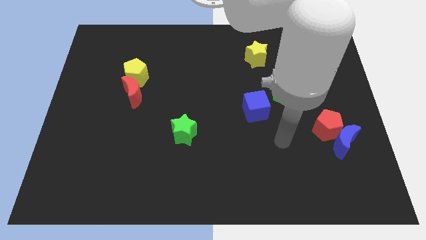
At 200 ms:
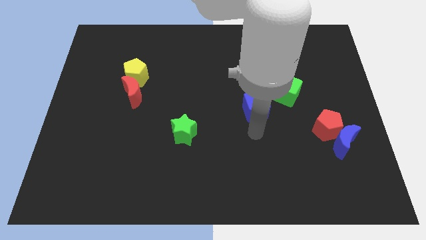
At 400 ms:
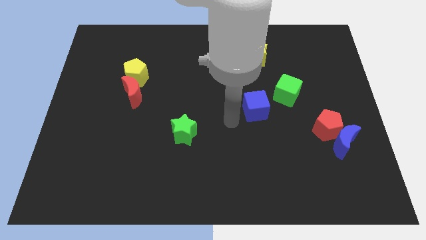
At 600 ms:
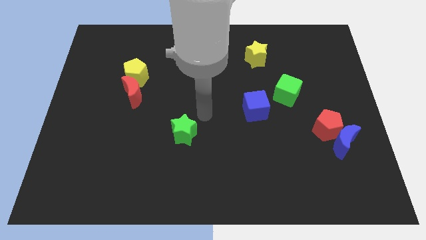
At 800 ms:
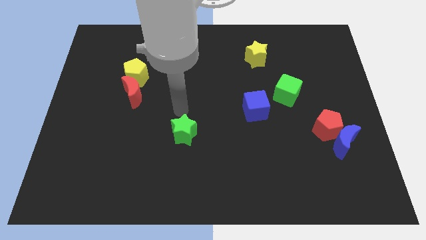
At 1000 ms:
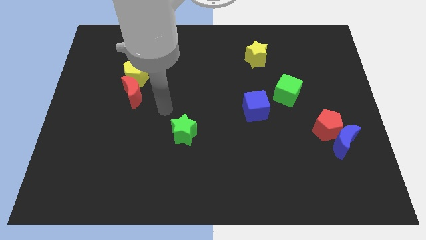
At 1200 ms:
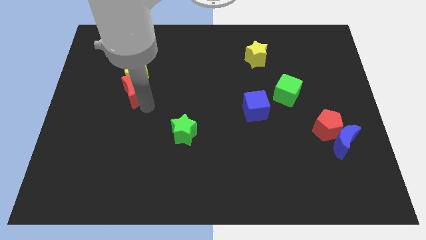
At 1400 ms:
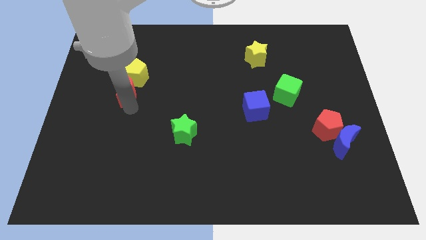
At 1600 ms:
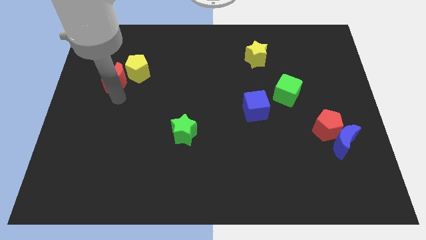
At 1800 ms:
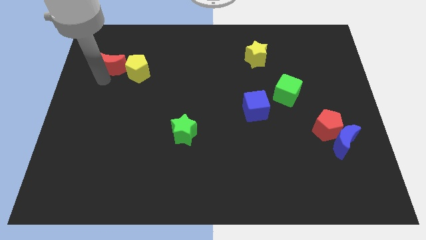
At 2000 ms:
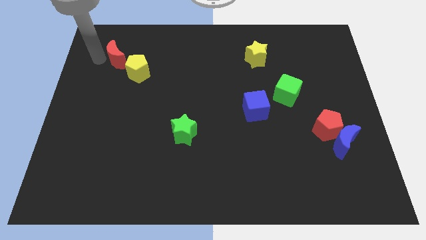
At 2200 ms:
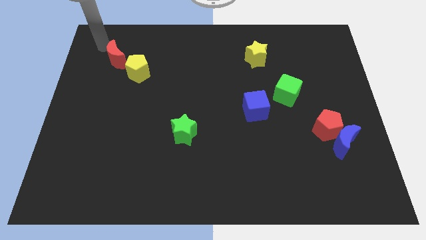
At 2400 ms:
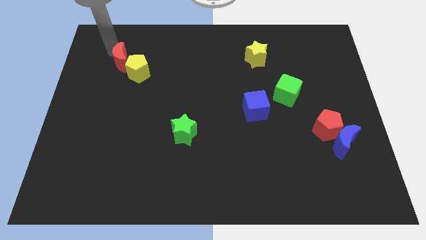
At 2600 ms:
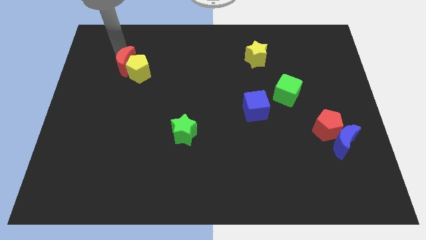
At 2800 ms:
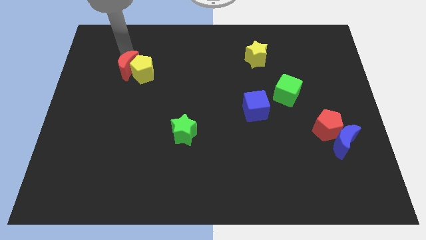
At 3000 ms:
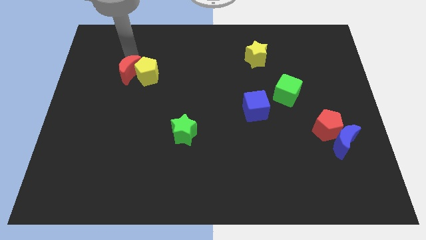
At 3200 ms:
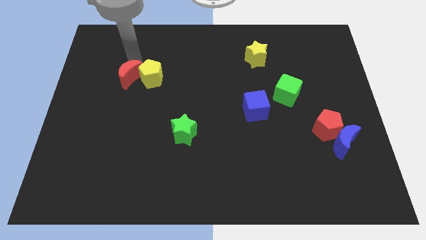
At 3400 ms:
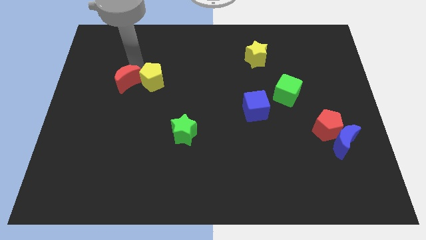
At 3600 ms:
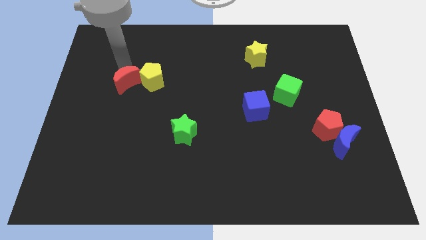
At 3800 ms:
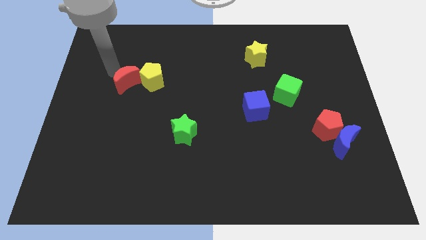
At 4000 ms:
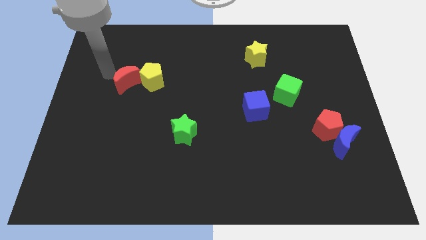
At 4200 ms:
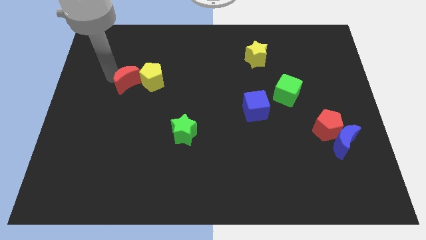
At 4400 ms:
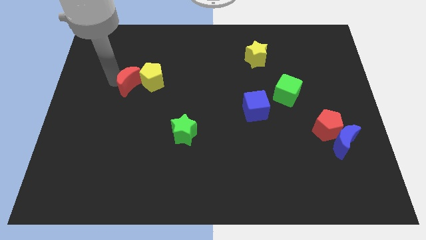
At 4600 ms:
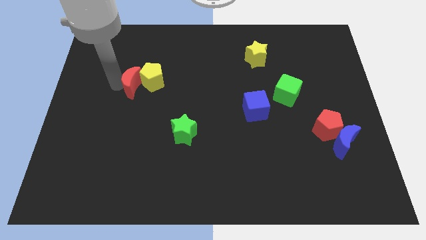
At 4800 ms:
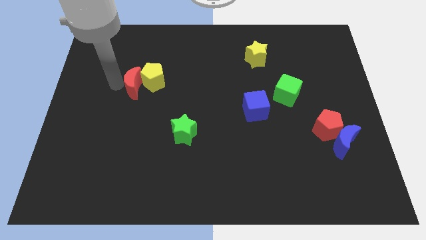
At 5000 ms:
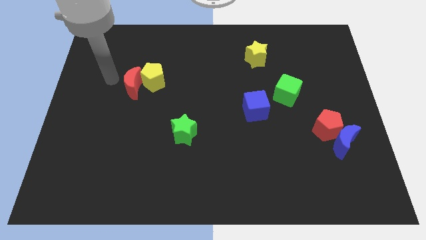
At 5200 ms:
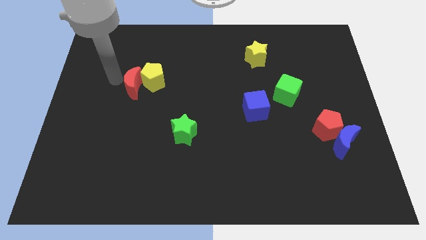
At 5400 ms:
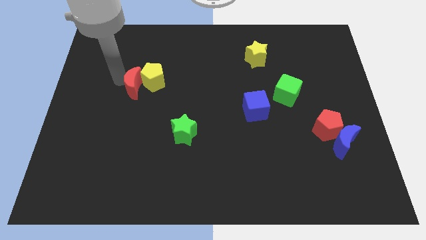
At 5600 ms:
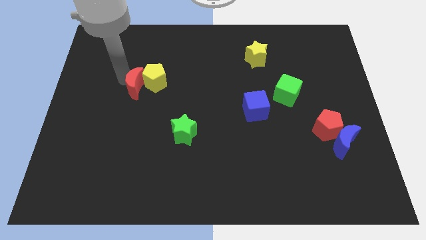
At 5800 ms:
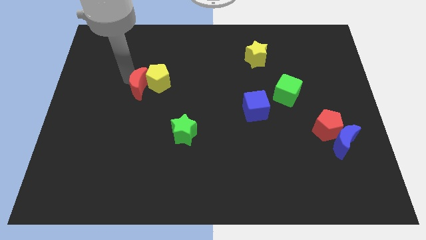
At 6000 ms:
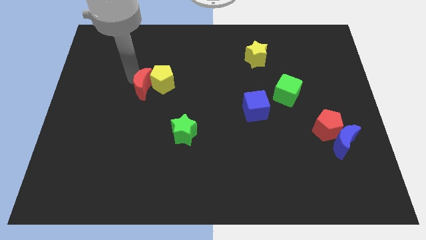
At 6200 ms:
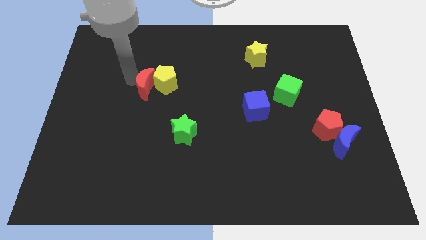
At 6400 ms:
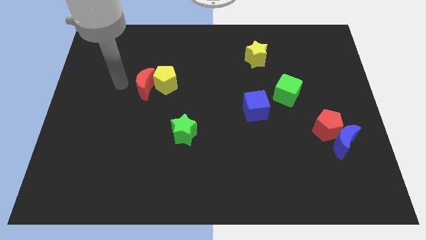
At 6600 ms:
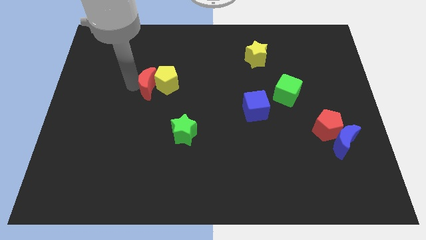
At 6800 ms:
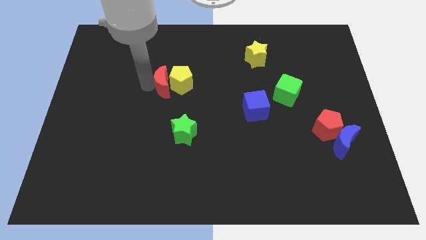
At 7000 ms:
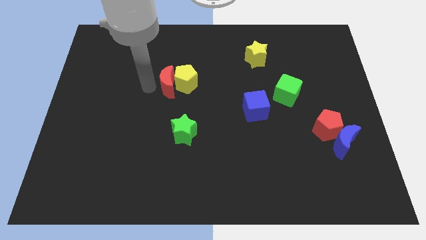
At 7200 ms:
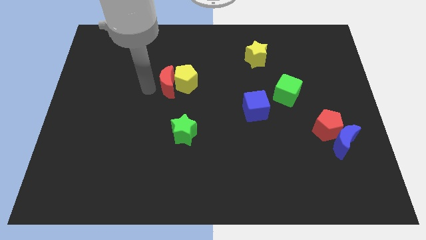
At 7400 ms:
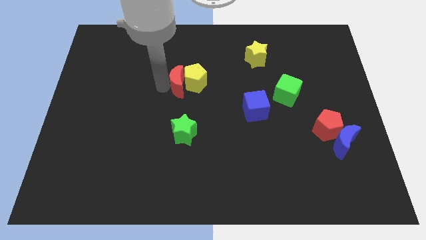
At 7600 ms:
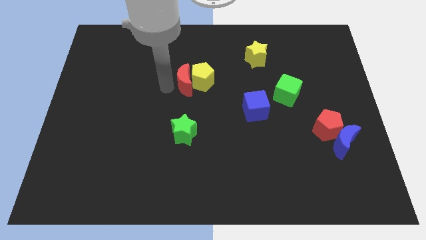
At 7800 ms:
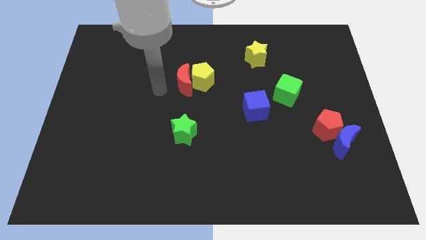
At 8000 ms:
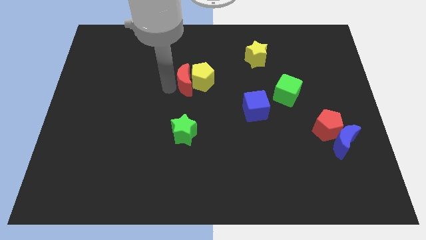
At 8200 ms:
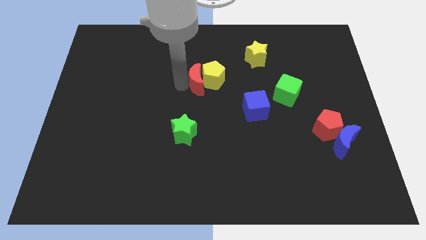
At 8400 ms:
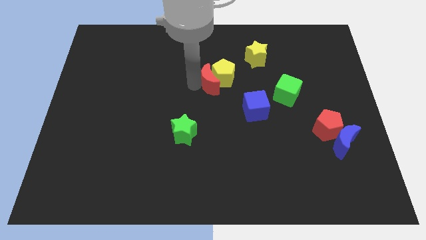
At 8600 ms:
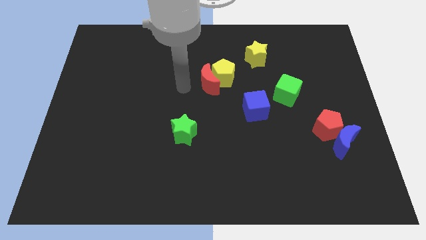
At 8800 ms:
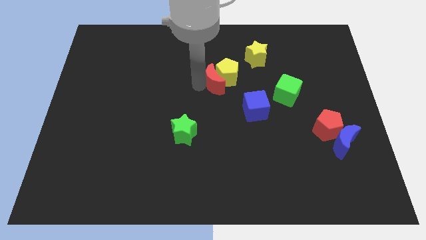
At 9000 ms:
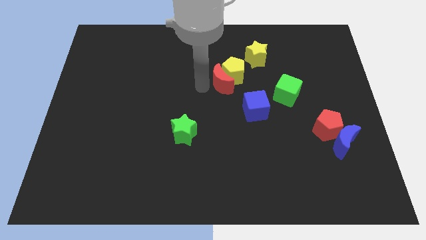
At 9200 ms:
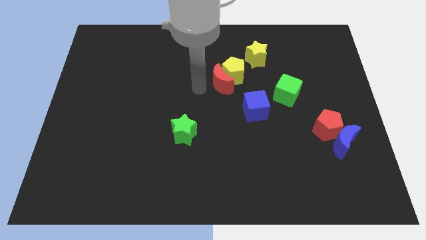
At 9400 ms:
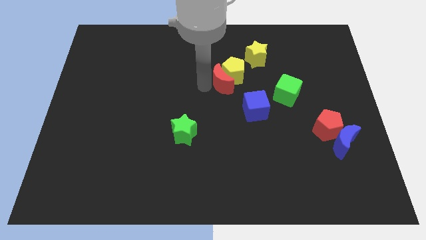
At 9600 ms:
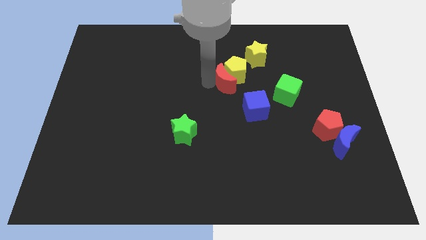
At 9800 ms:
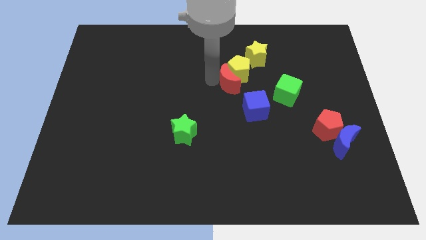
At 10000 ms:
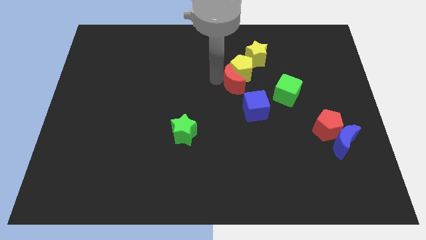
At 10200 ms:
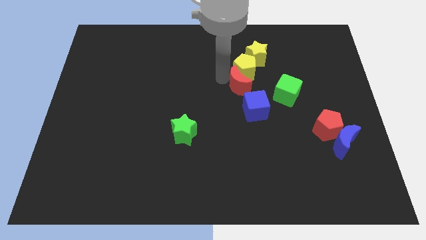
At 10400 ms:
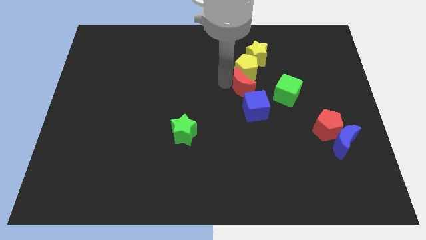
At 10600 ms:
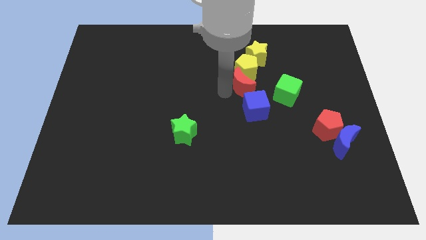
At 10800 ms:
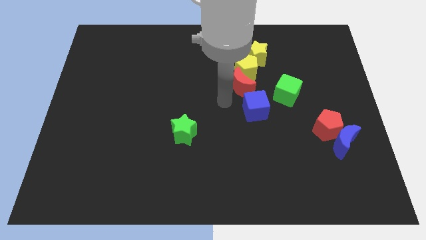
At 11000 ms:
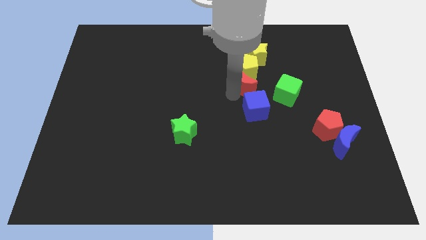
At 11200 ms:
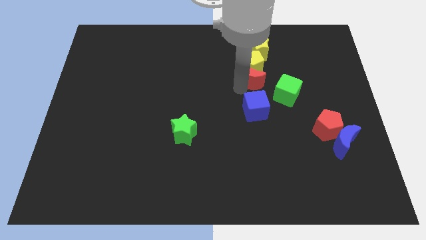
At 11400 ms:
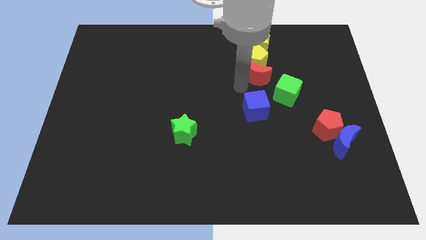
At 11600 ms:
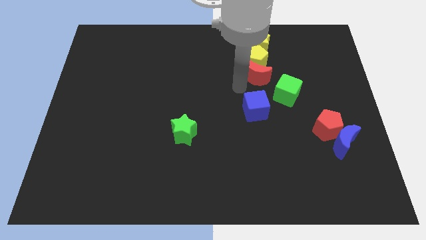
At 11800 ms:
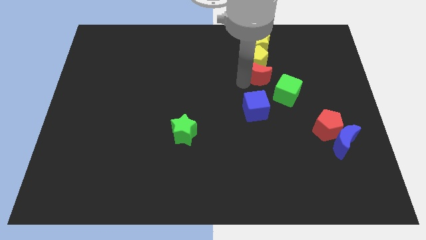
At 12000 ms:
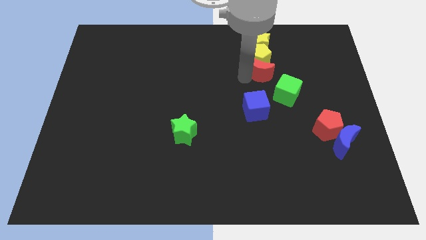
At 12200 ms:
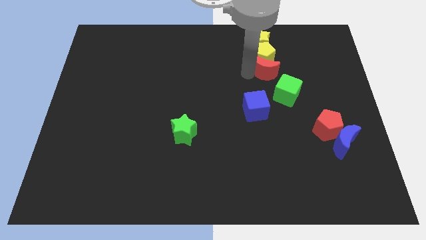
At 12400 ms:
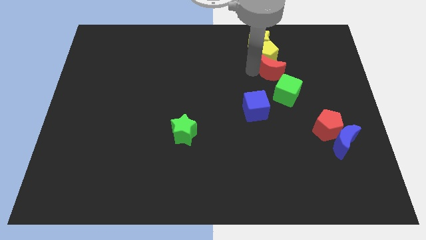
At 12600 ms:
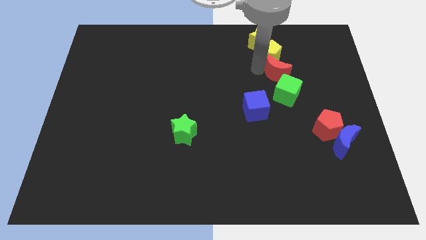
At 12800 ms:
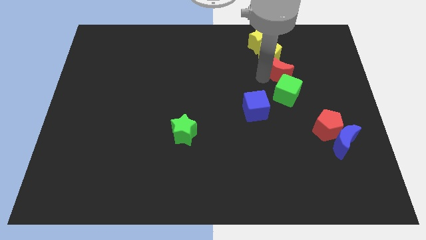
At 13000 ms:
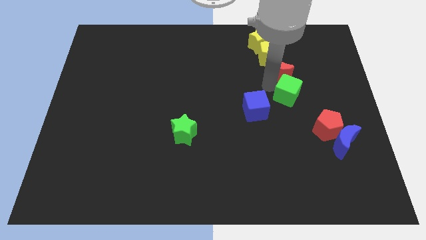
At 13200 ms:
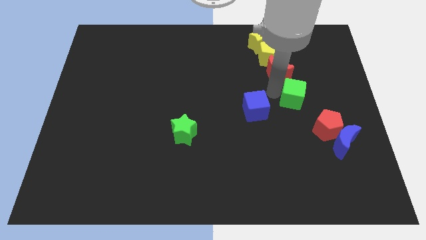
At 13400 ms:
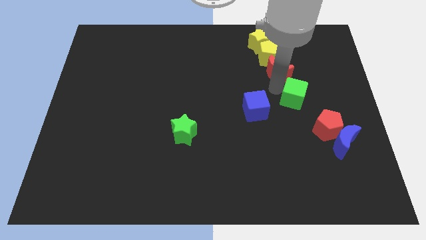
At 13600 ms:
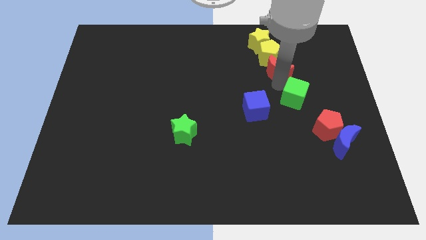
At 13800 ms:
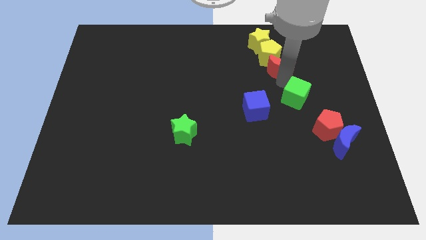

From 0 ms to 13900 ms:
push the red moon to the bottom right of the yellow star
